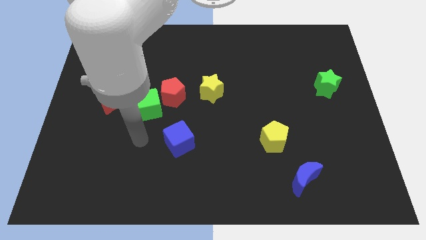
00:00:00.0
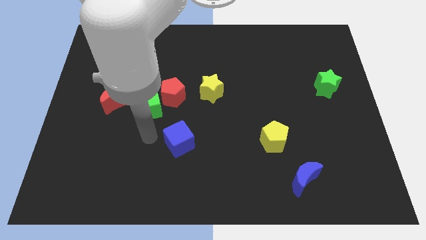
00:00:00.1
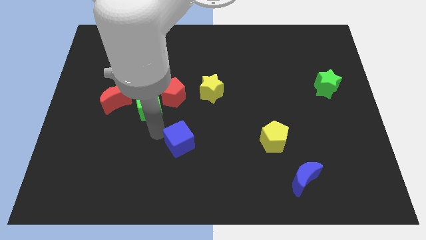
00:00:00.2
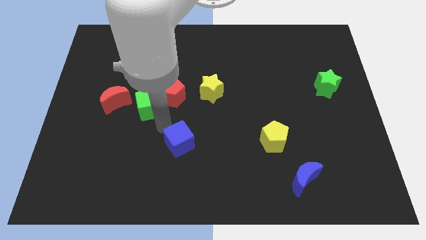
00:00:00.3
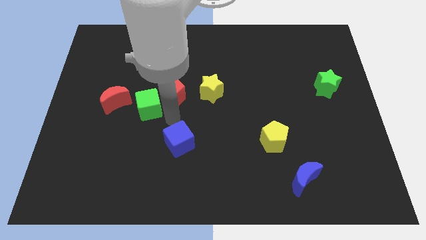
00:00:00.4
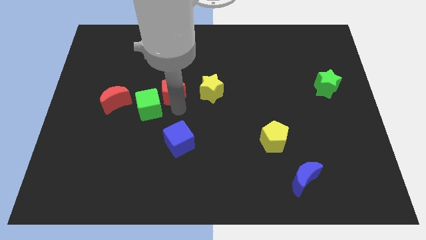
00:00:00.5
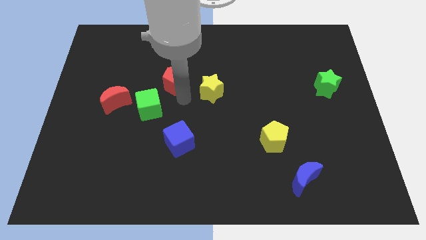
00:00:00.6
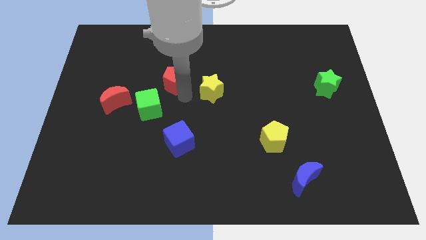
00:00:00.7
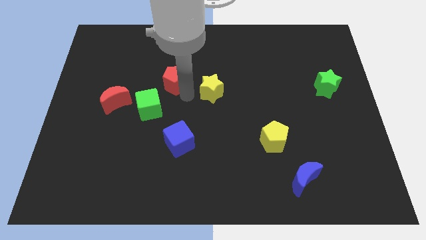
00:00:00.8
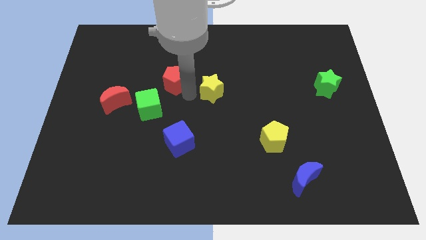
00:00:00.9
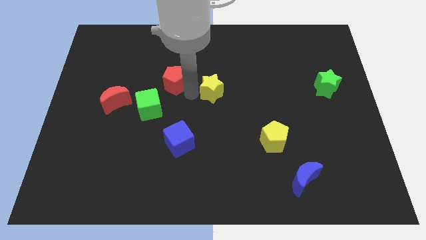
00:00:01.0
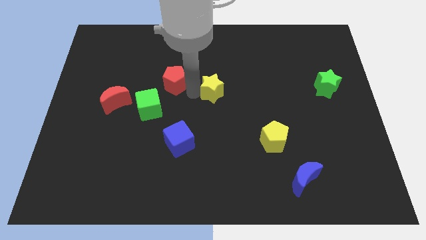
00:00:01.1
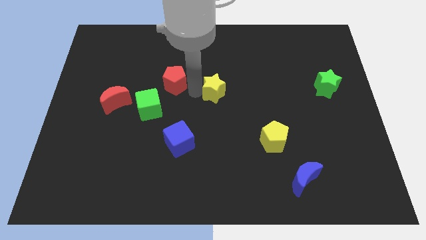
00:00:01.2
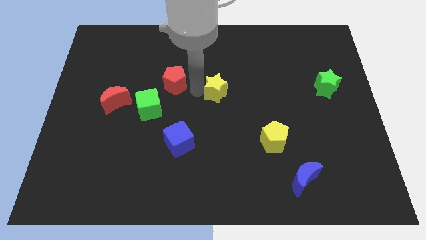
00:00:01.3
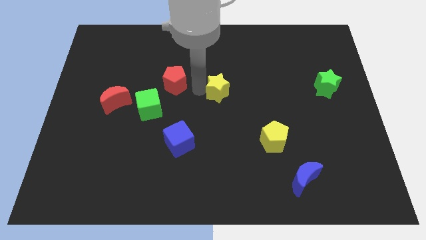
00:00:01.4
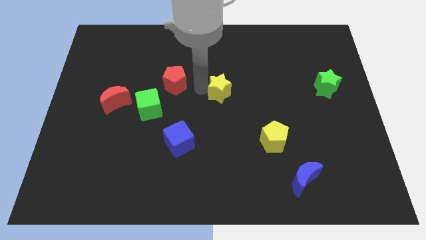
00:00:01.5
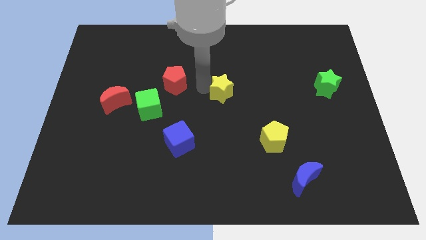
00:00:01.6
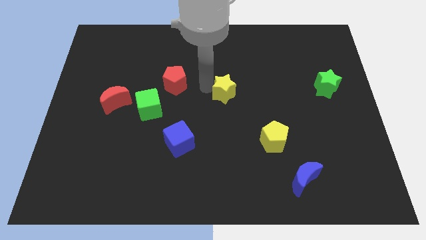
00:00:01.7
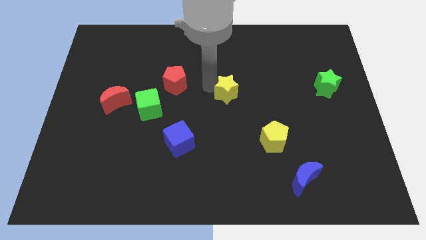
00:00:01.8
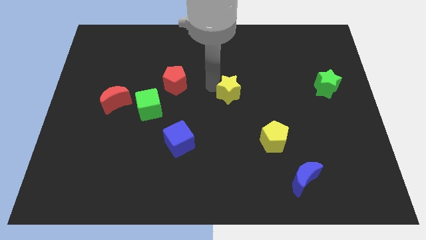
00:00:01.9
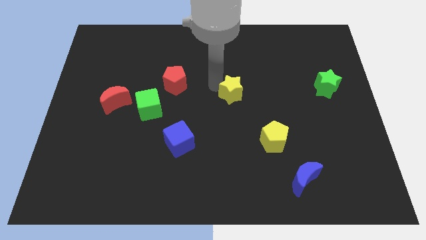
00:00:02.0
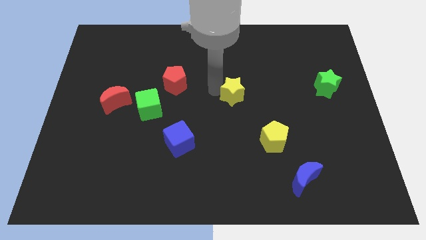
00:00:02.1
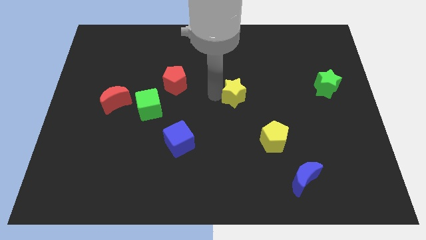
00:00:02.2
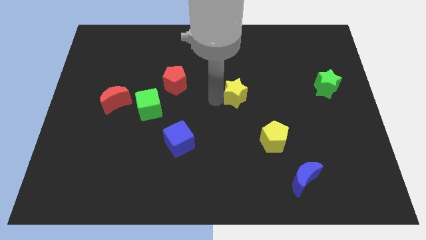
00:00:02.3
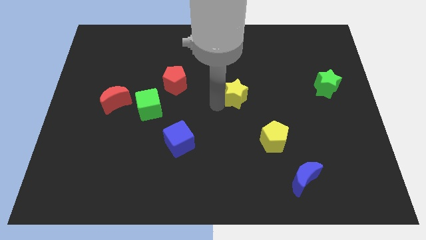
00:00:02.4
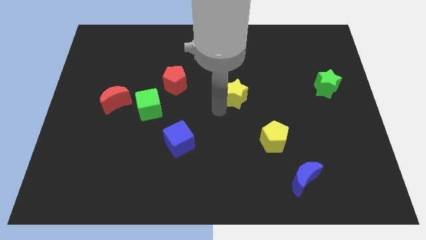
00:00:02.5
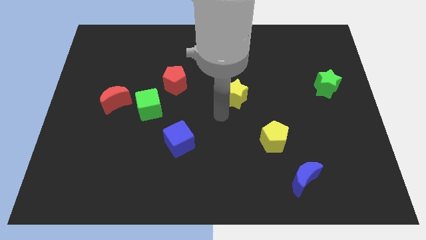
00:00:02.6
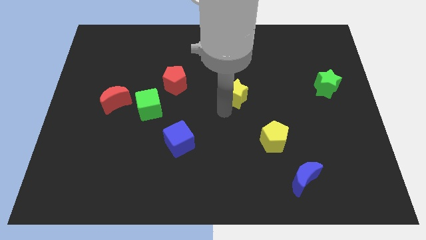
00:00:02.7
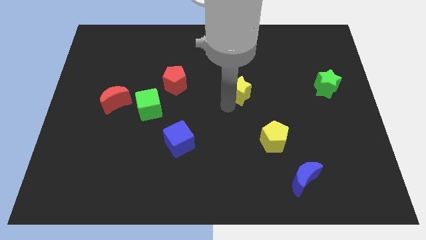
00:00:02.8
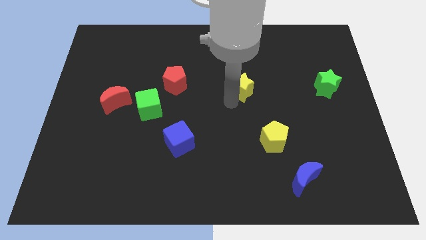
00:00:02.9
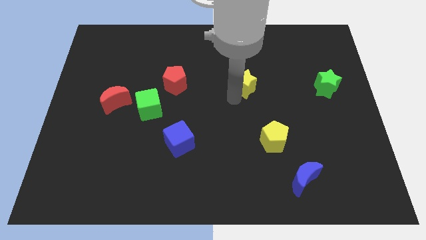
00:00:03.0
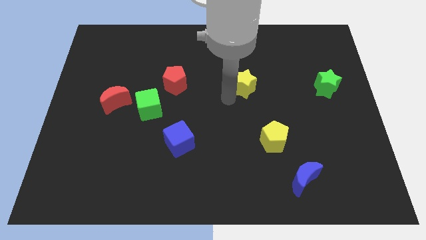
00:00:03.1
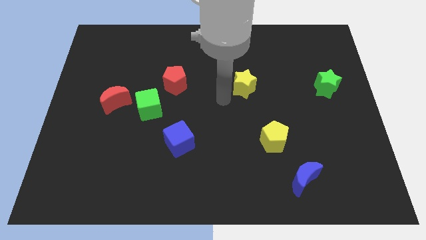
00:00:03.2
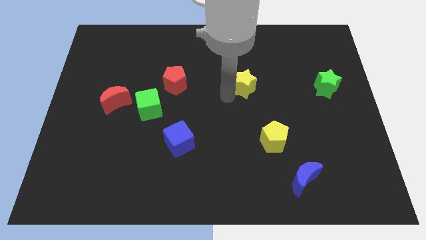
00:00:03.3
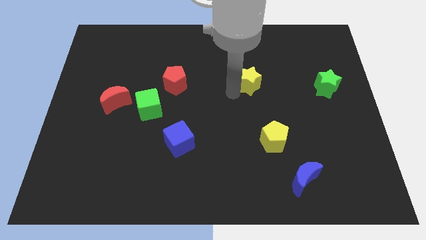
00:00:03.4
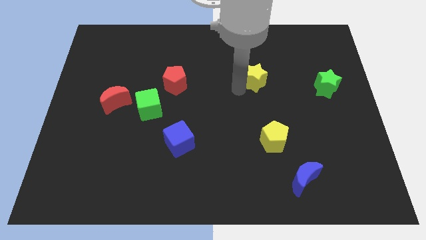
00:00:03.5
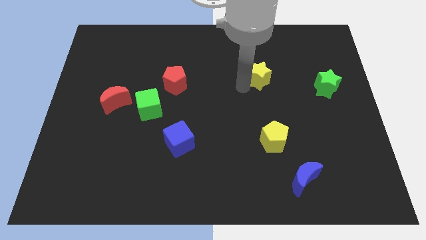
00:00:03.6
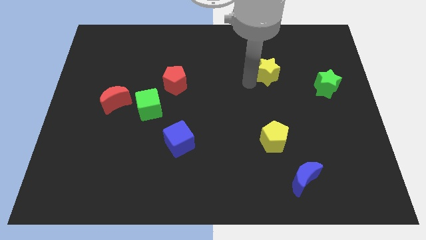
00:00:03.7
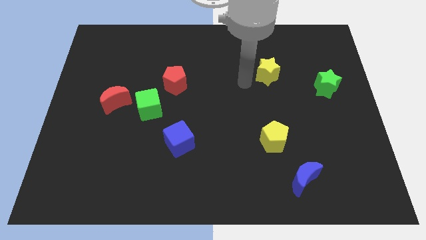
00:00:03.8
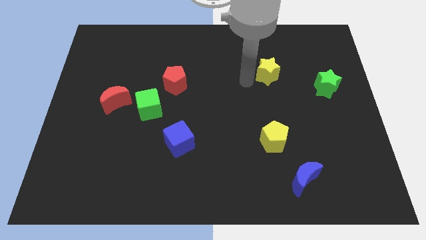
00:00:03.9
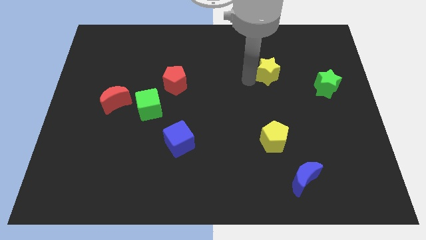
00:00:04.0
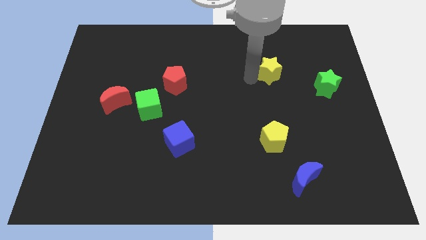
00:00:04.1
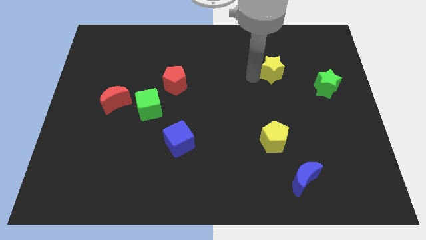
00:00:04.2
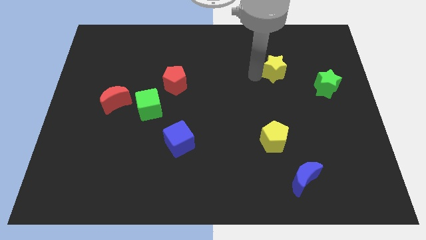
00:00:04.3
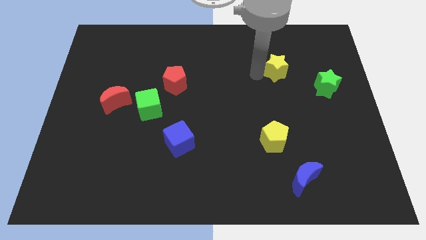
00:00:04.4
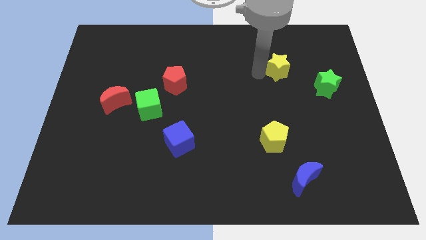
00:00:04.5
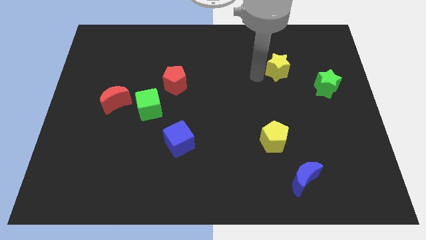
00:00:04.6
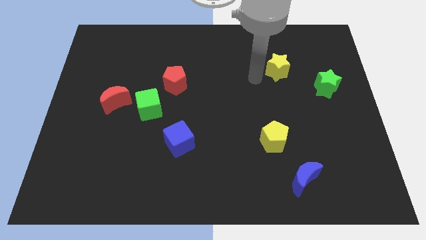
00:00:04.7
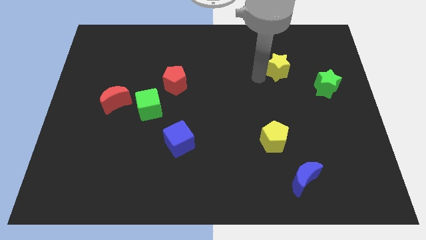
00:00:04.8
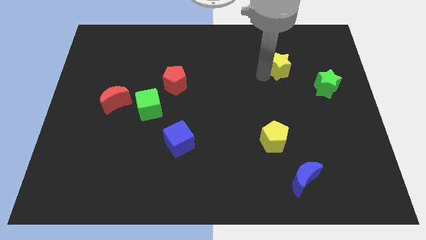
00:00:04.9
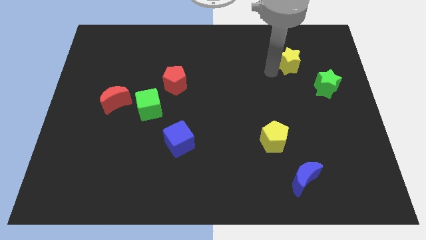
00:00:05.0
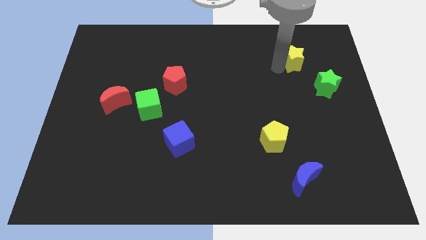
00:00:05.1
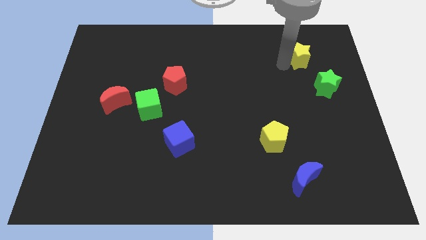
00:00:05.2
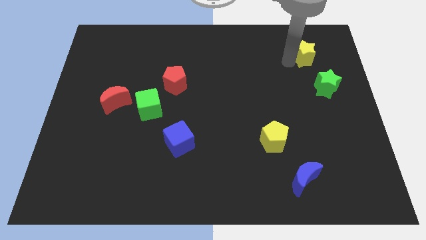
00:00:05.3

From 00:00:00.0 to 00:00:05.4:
put the yellow star to the top side of the green star

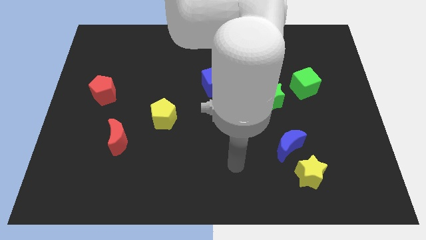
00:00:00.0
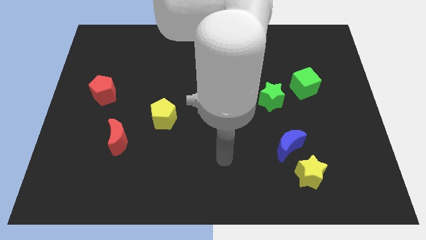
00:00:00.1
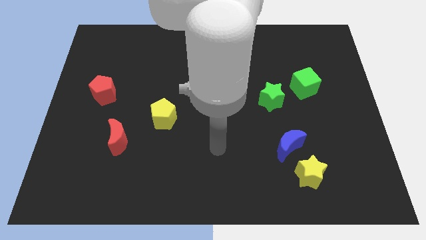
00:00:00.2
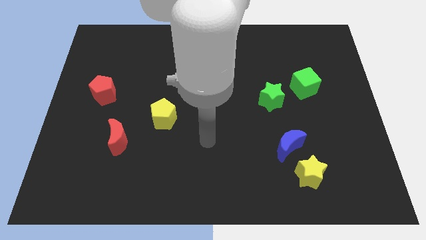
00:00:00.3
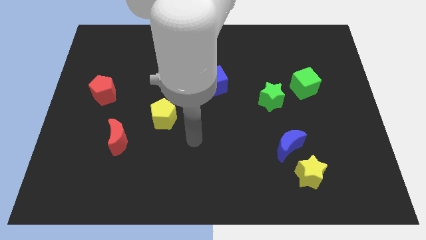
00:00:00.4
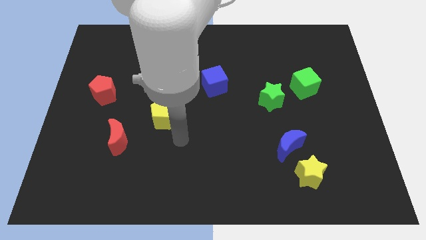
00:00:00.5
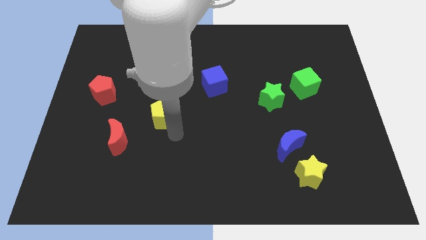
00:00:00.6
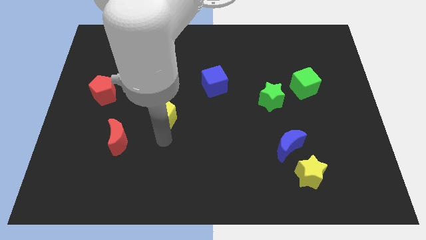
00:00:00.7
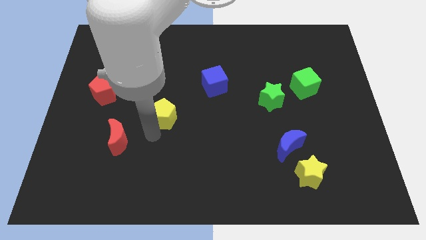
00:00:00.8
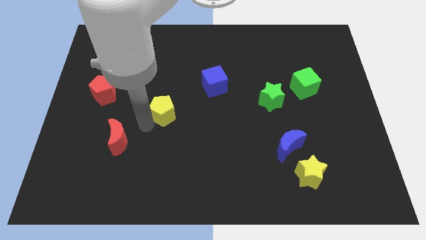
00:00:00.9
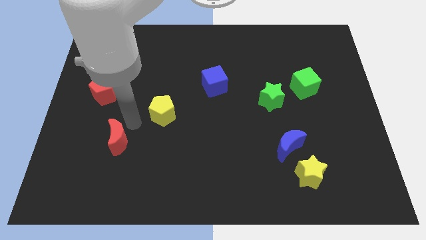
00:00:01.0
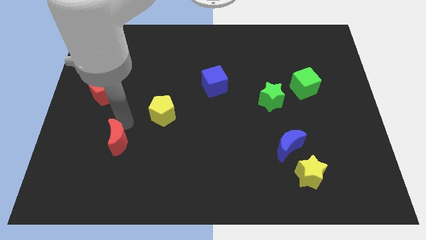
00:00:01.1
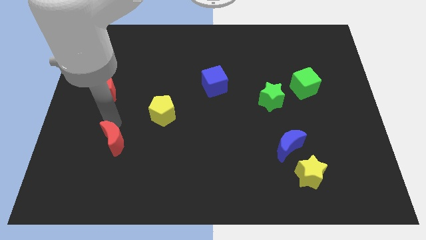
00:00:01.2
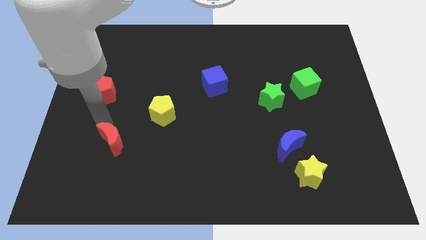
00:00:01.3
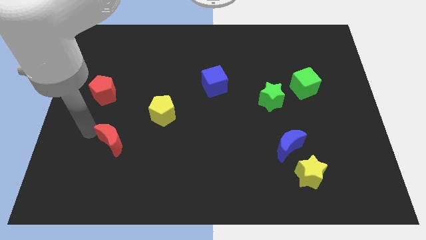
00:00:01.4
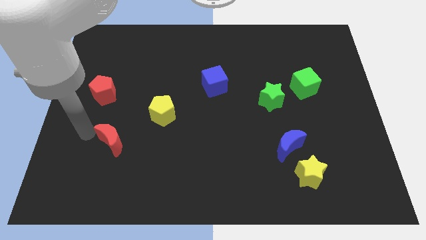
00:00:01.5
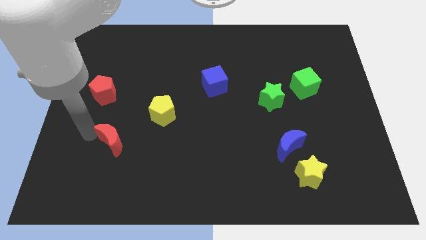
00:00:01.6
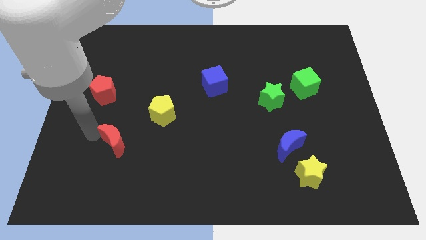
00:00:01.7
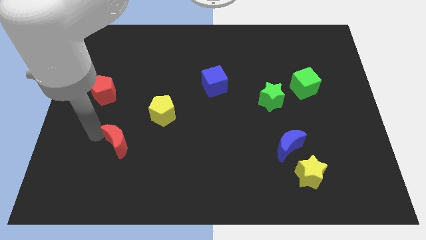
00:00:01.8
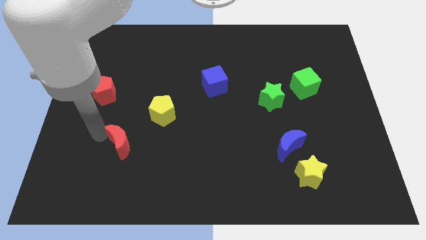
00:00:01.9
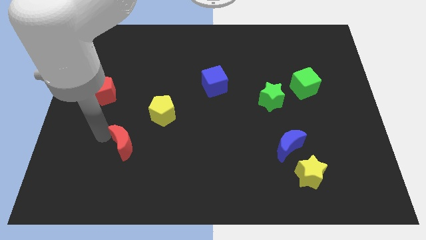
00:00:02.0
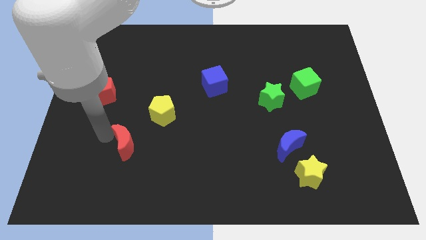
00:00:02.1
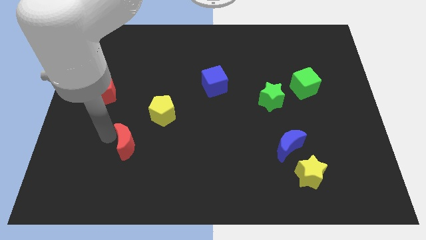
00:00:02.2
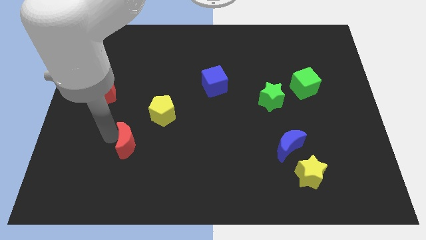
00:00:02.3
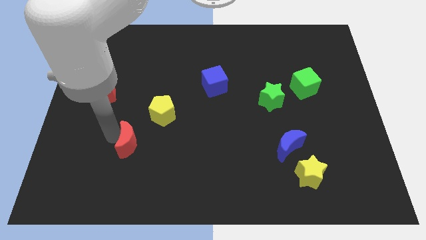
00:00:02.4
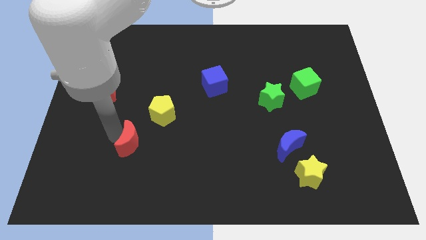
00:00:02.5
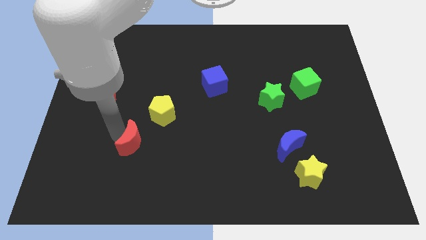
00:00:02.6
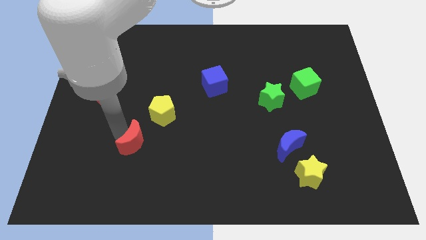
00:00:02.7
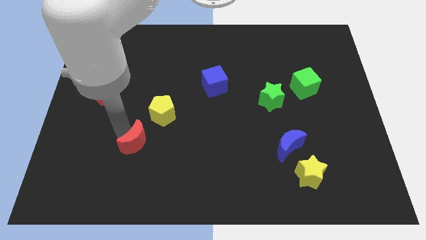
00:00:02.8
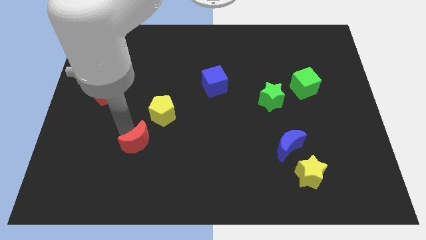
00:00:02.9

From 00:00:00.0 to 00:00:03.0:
put the red moon below the yellow pentagon

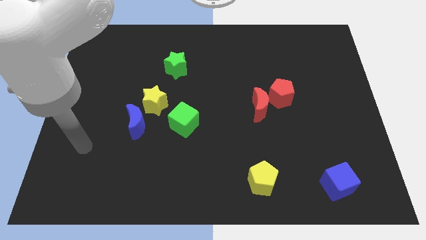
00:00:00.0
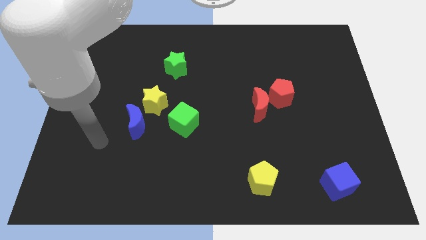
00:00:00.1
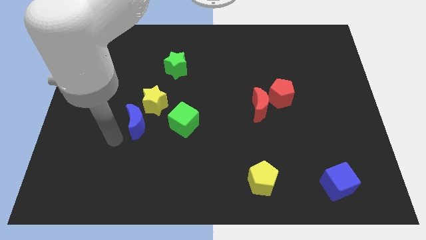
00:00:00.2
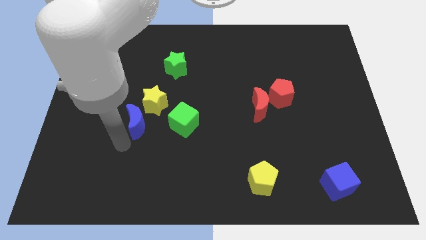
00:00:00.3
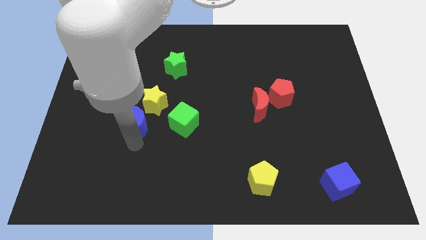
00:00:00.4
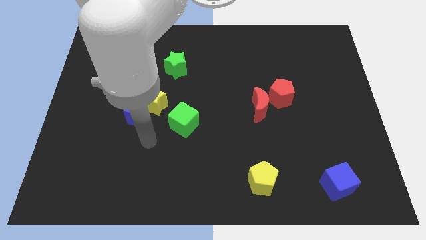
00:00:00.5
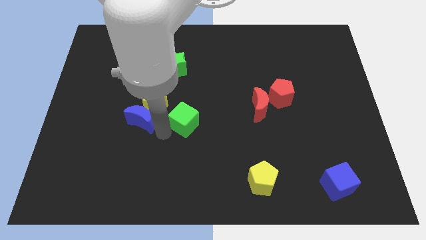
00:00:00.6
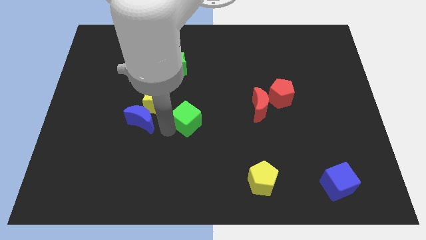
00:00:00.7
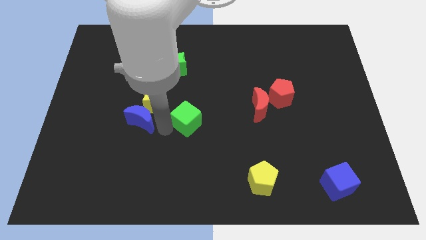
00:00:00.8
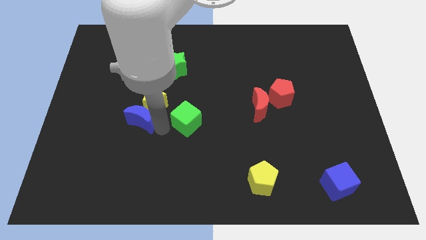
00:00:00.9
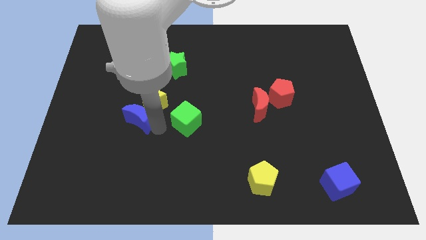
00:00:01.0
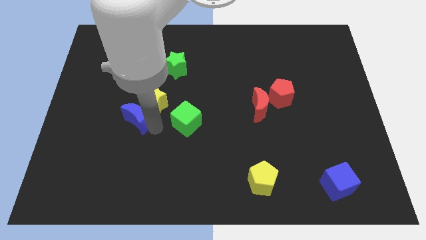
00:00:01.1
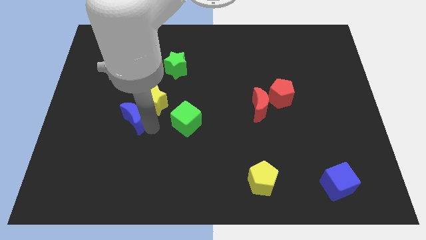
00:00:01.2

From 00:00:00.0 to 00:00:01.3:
slide the blue moon to the left side of the yellow star
